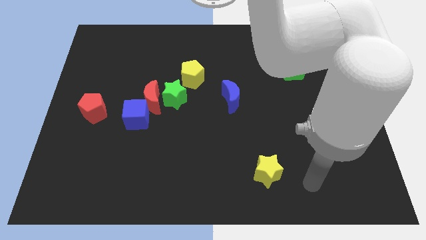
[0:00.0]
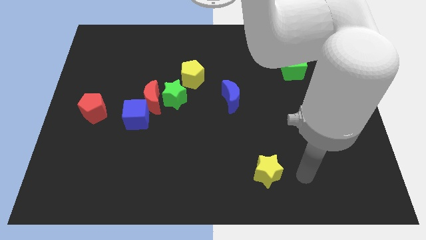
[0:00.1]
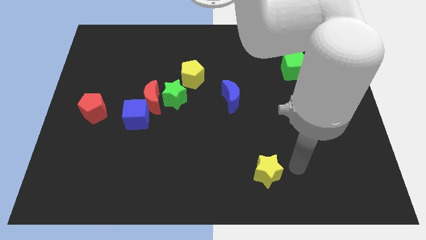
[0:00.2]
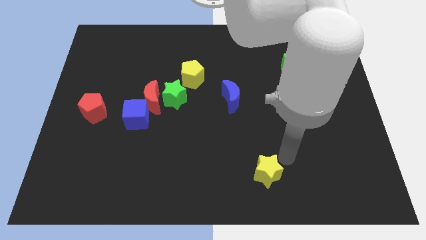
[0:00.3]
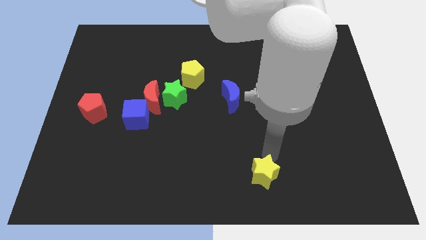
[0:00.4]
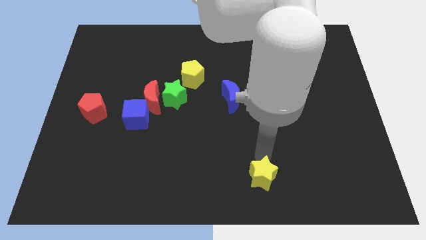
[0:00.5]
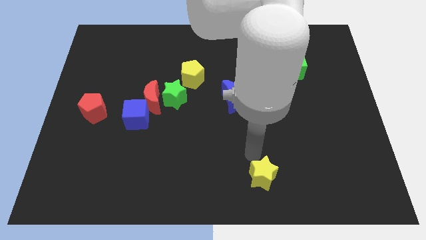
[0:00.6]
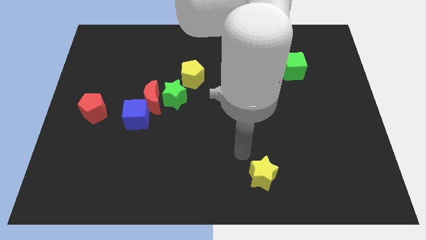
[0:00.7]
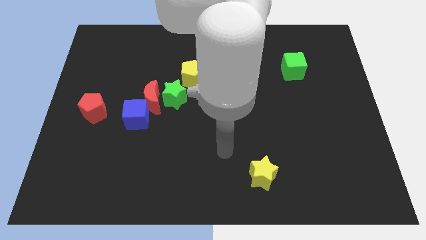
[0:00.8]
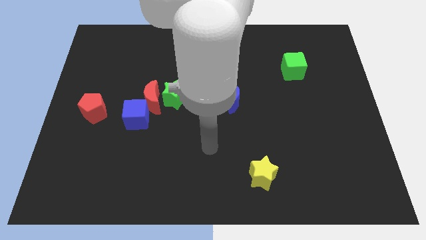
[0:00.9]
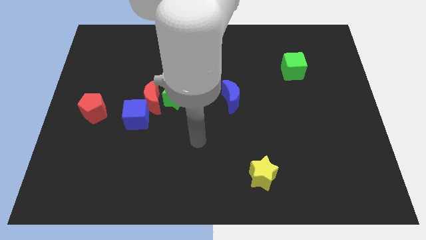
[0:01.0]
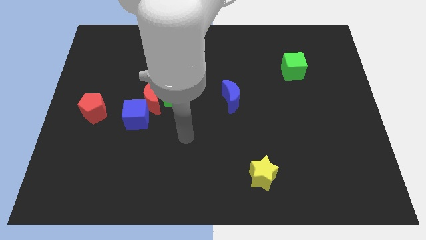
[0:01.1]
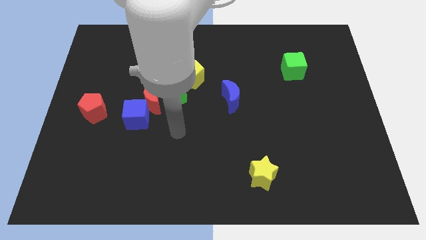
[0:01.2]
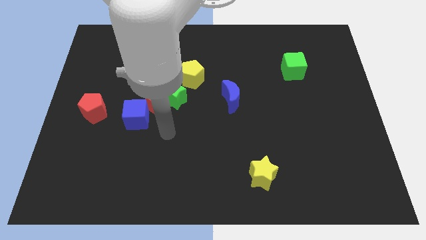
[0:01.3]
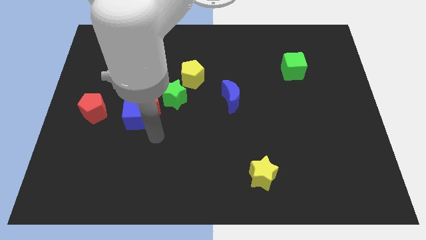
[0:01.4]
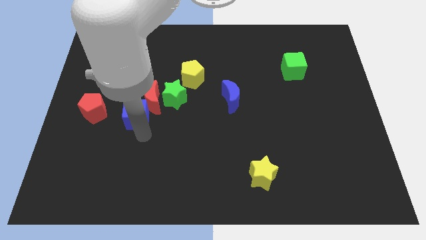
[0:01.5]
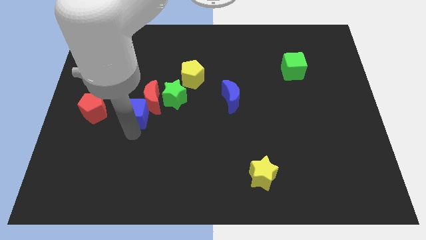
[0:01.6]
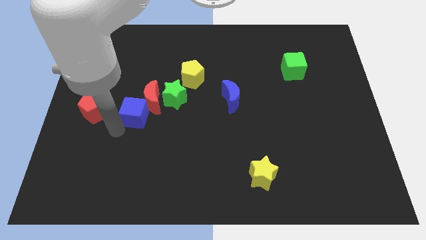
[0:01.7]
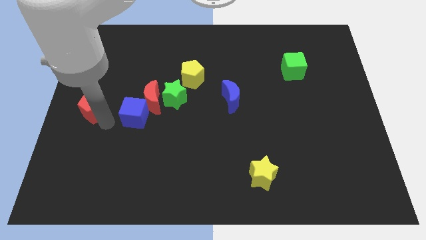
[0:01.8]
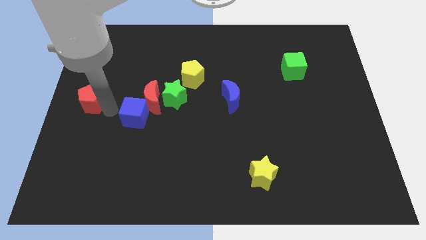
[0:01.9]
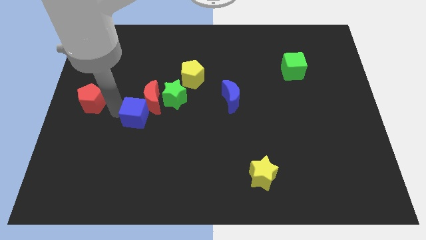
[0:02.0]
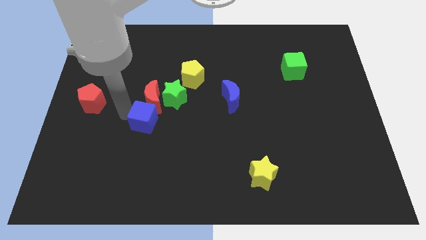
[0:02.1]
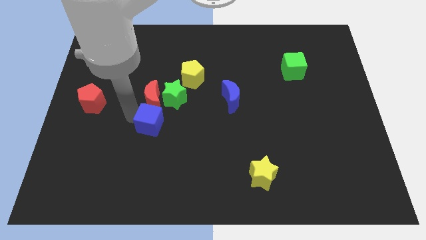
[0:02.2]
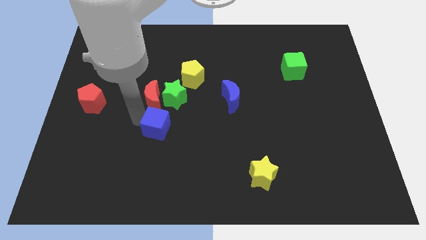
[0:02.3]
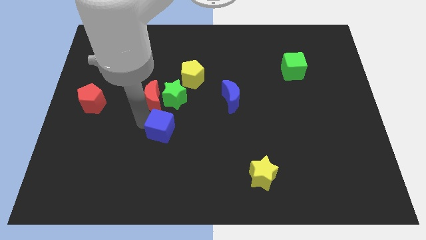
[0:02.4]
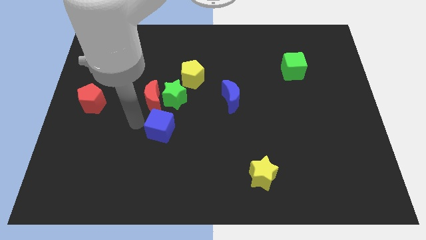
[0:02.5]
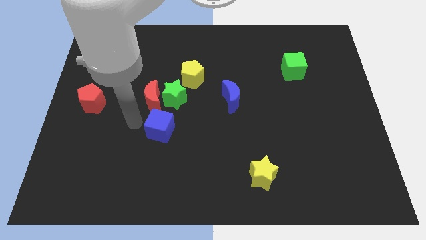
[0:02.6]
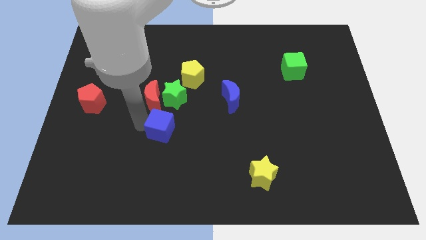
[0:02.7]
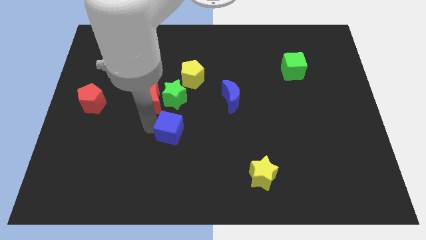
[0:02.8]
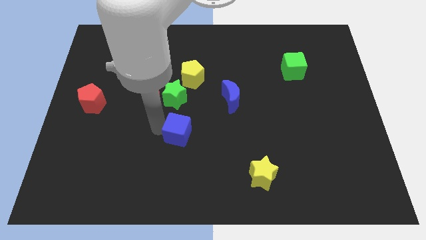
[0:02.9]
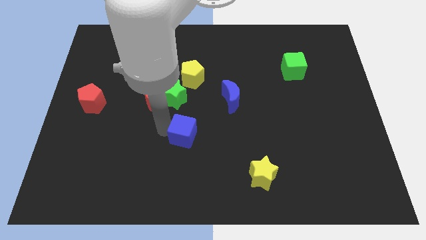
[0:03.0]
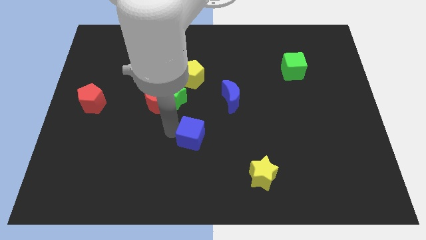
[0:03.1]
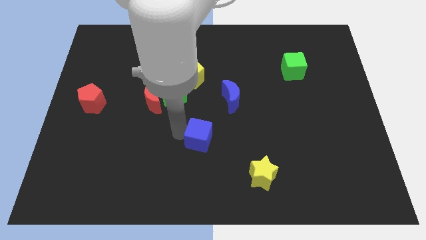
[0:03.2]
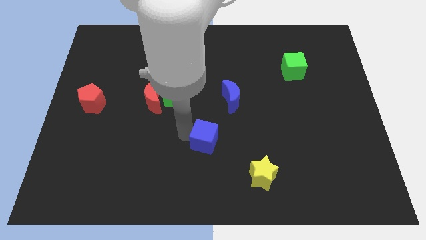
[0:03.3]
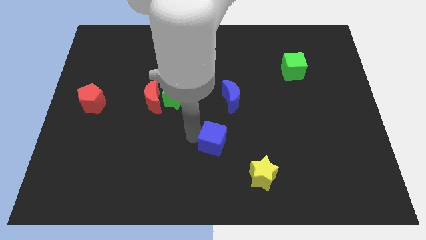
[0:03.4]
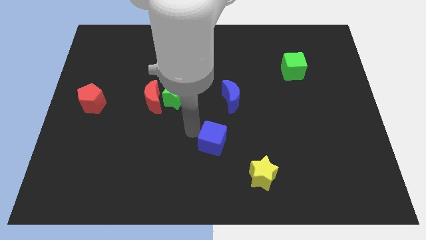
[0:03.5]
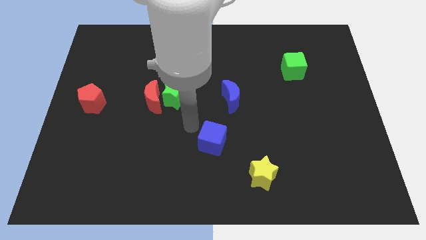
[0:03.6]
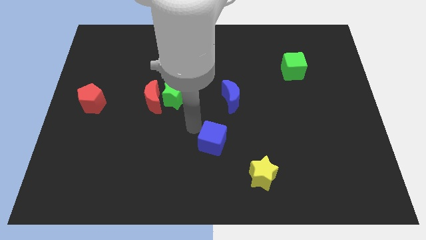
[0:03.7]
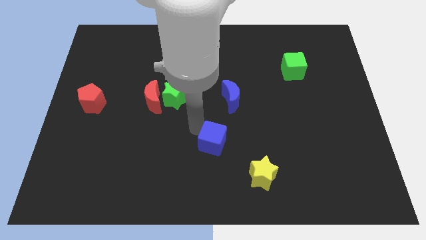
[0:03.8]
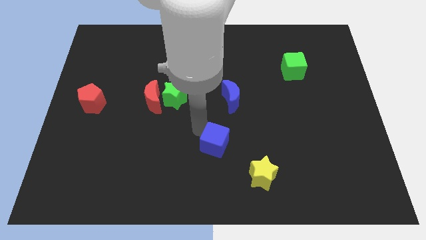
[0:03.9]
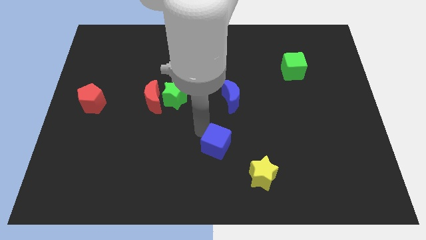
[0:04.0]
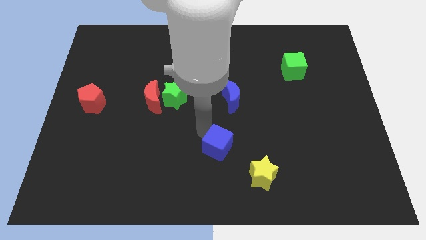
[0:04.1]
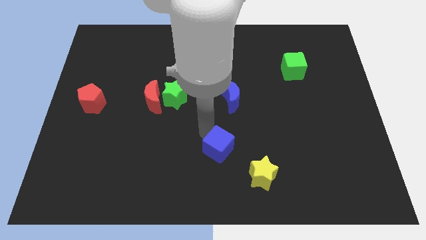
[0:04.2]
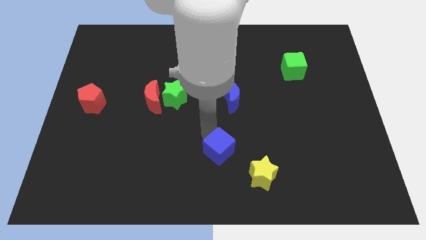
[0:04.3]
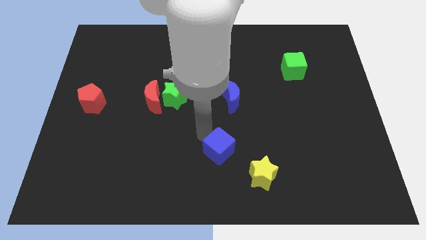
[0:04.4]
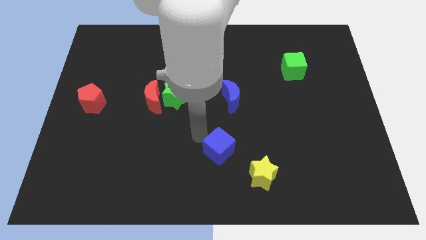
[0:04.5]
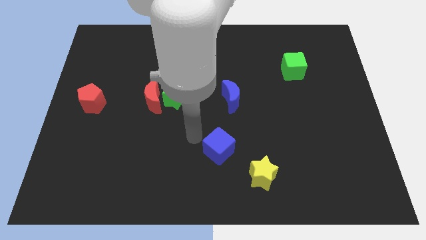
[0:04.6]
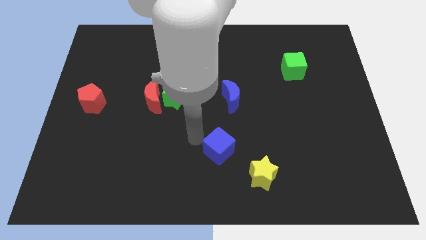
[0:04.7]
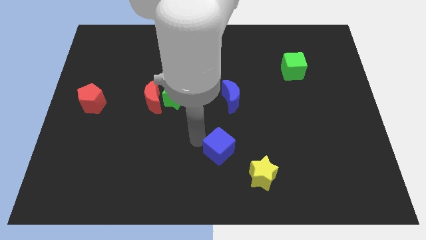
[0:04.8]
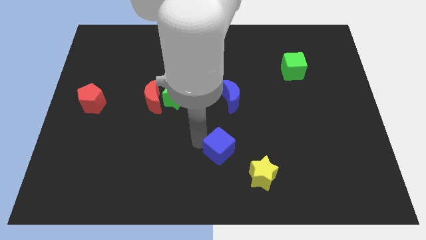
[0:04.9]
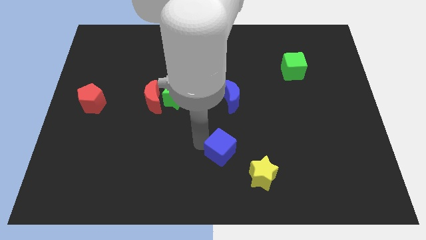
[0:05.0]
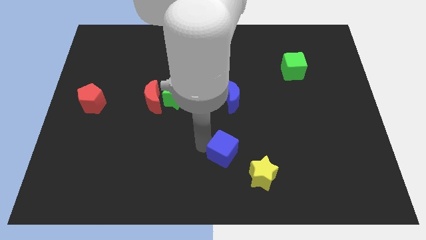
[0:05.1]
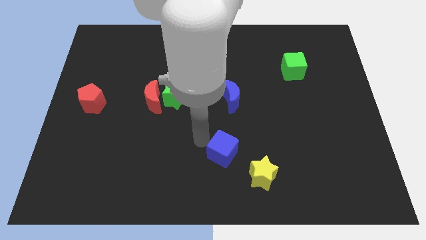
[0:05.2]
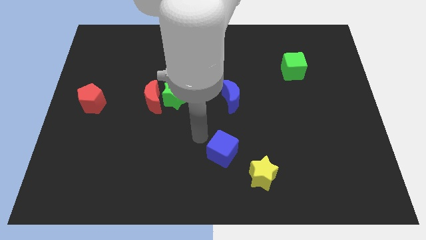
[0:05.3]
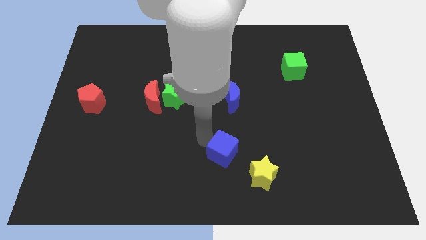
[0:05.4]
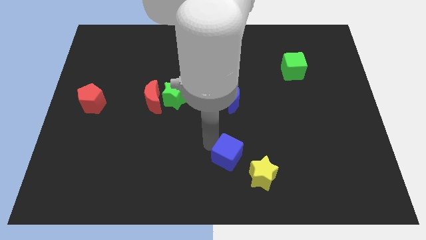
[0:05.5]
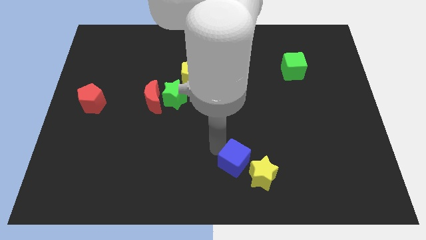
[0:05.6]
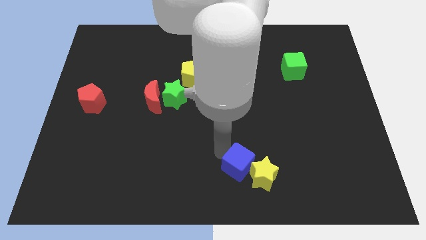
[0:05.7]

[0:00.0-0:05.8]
push the blue cube to the yellow star

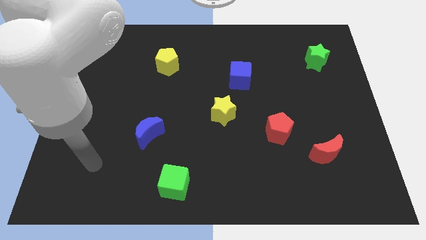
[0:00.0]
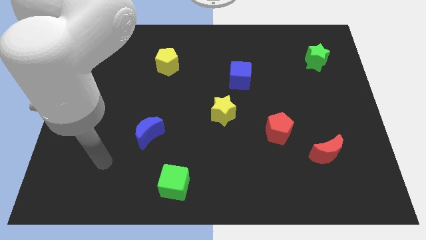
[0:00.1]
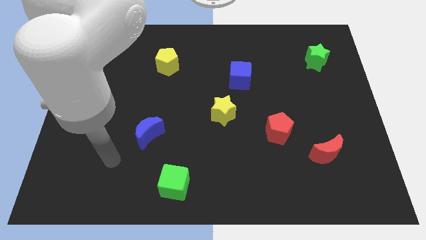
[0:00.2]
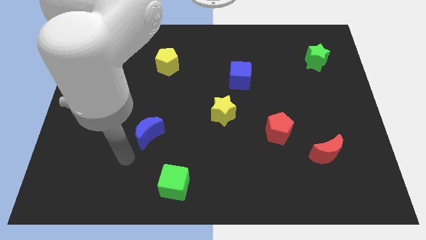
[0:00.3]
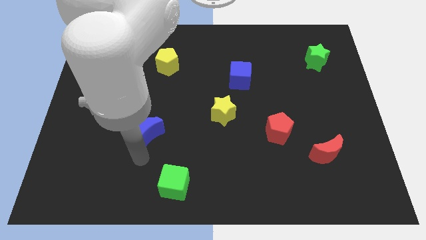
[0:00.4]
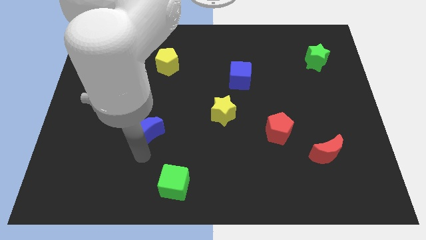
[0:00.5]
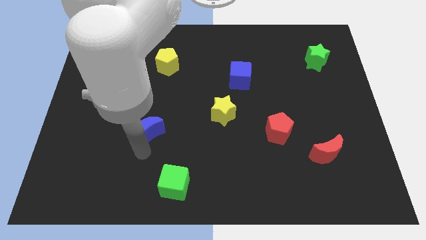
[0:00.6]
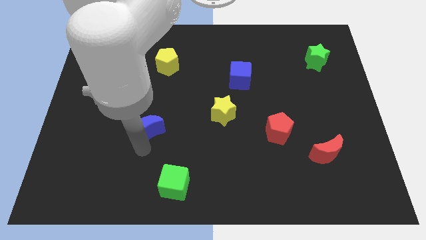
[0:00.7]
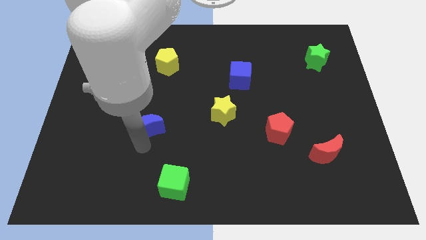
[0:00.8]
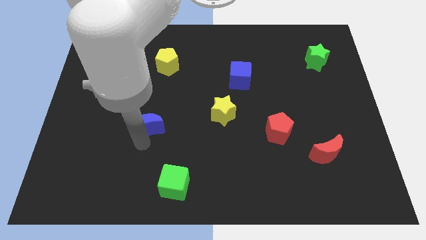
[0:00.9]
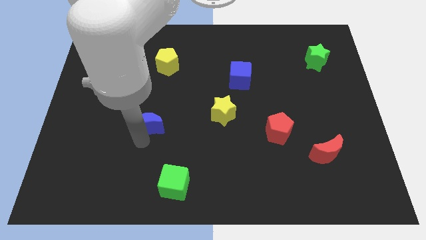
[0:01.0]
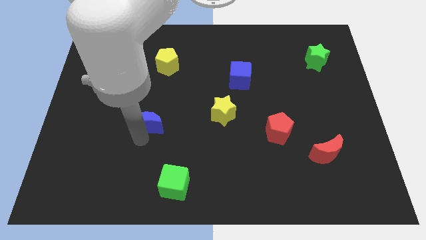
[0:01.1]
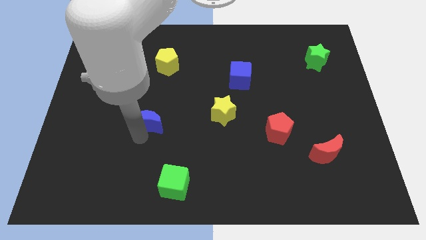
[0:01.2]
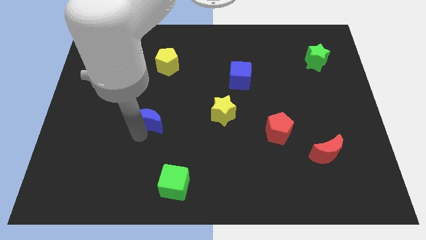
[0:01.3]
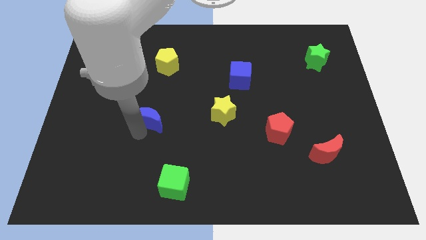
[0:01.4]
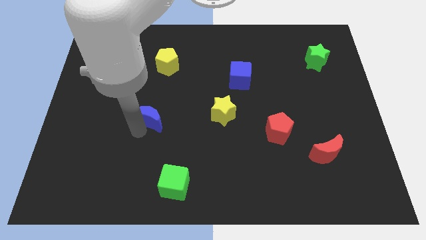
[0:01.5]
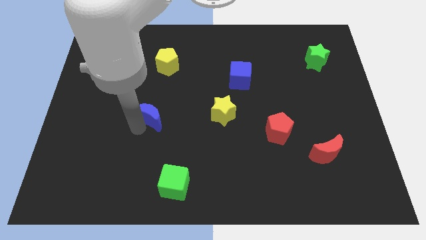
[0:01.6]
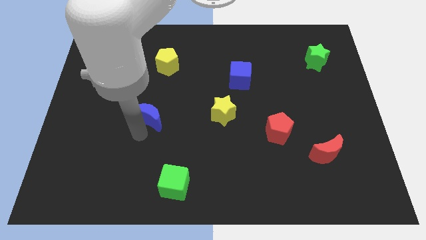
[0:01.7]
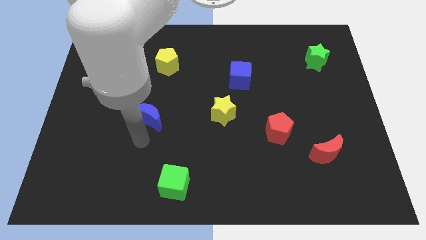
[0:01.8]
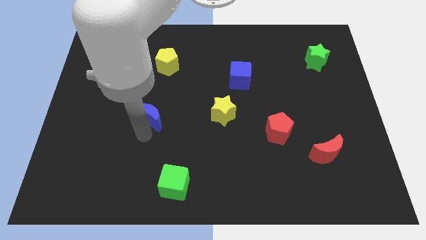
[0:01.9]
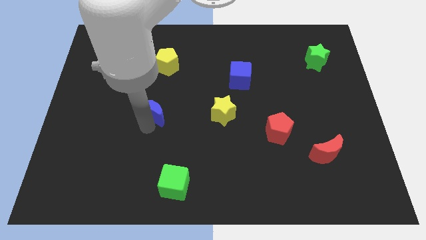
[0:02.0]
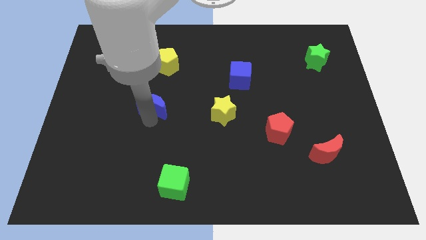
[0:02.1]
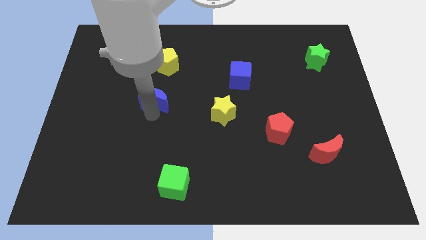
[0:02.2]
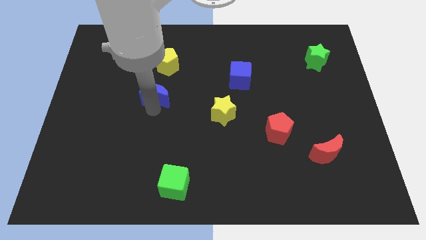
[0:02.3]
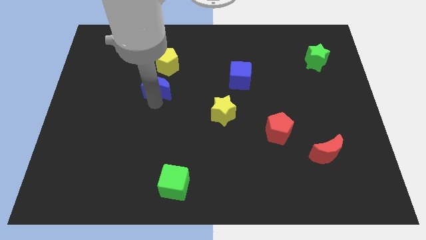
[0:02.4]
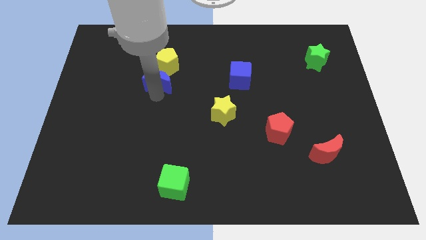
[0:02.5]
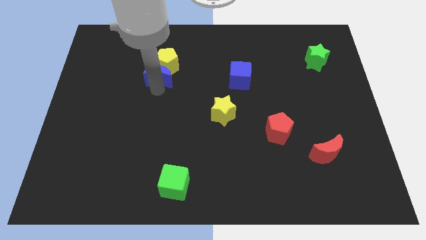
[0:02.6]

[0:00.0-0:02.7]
put the blue moon next to the yellow pentagon
